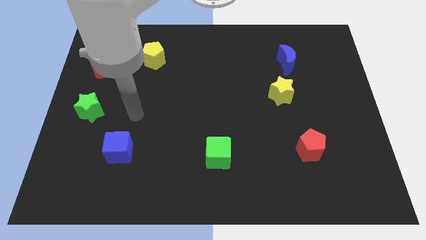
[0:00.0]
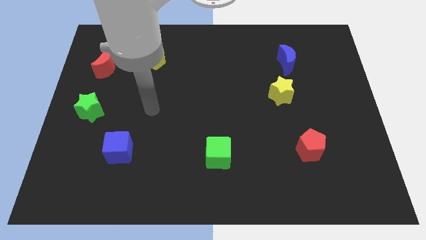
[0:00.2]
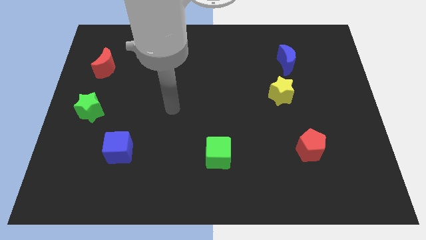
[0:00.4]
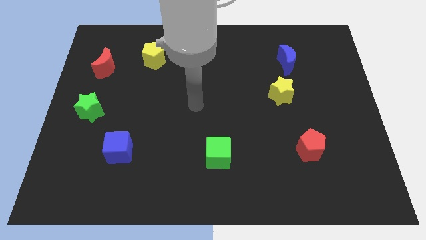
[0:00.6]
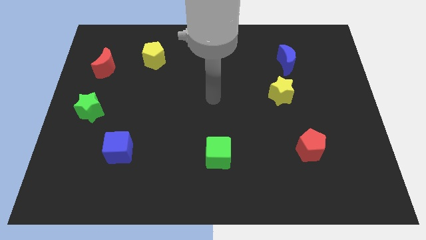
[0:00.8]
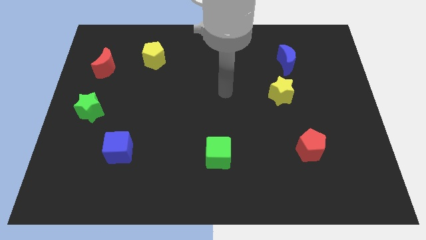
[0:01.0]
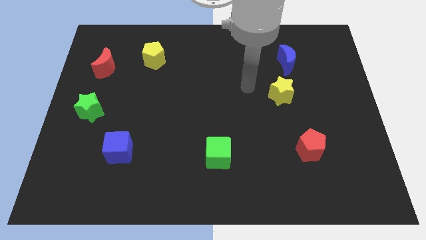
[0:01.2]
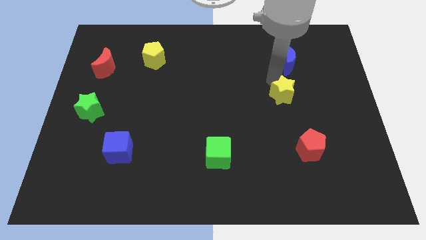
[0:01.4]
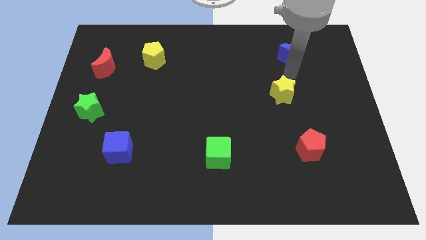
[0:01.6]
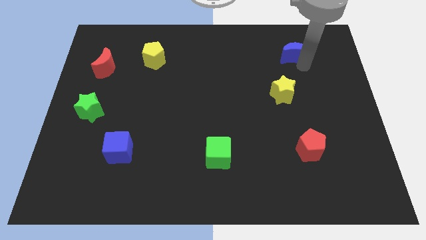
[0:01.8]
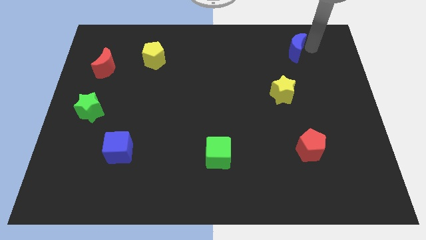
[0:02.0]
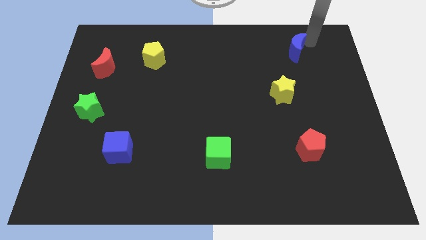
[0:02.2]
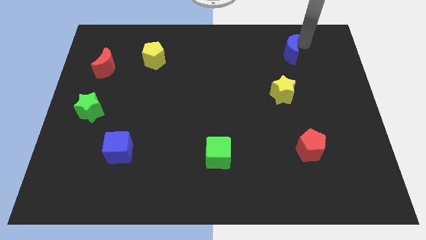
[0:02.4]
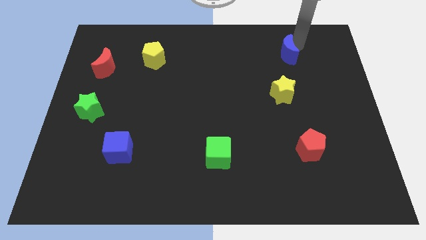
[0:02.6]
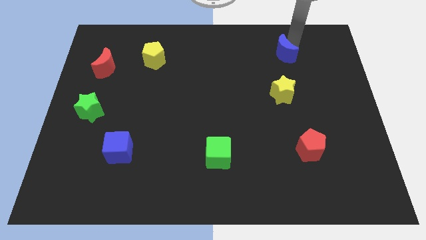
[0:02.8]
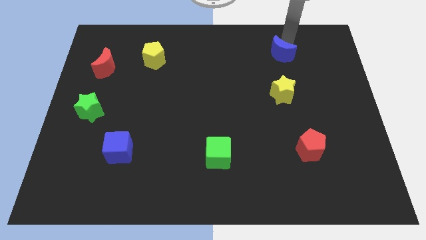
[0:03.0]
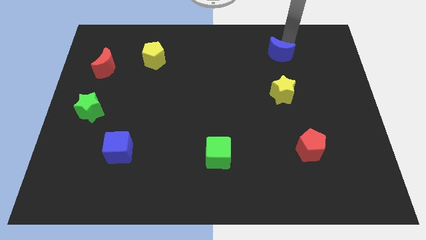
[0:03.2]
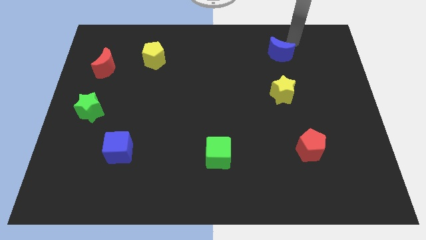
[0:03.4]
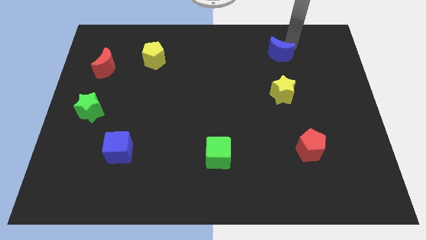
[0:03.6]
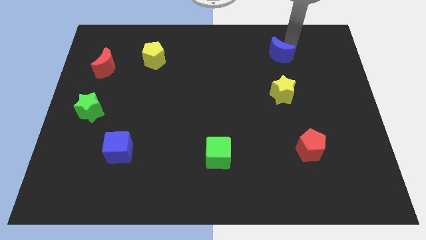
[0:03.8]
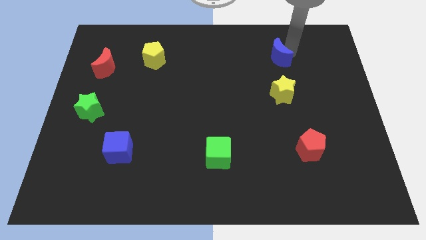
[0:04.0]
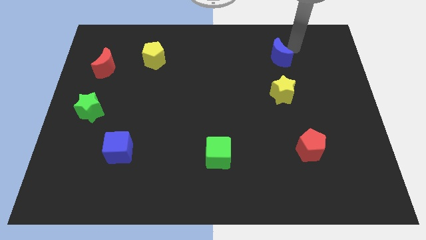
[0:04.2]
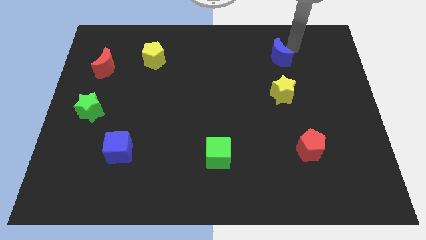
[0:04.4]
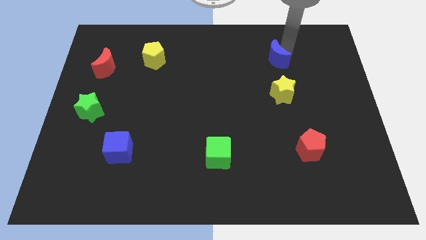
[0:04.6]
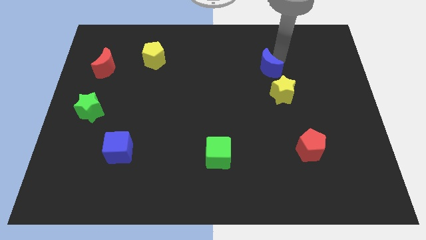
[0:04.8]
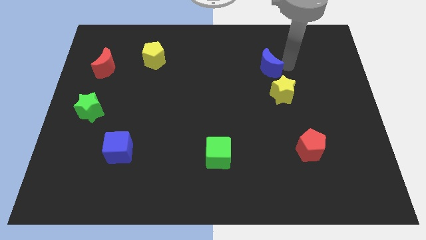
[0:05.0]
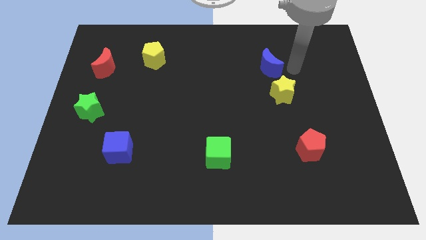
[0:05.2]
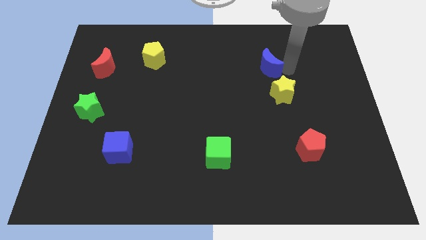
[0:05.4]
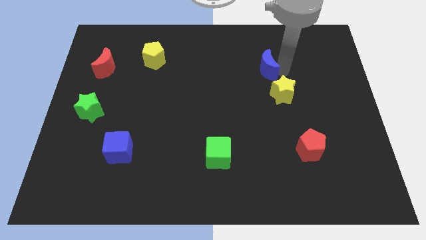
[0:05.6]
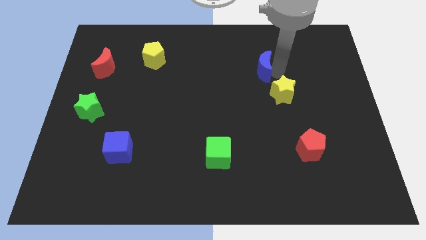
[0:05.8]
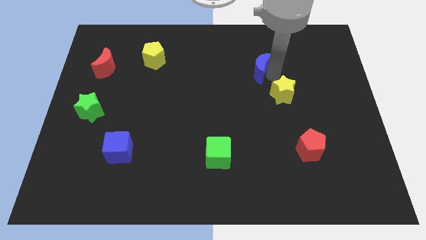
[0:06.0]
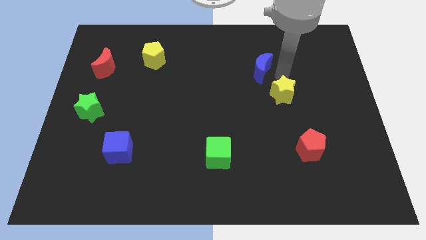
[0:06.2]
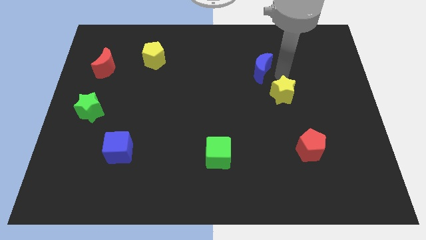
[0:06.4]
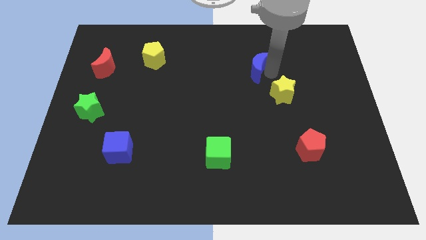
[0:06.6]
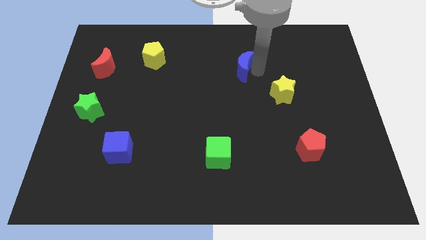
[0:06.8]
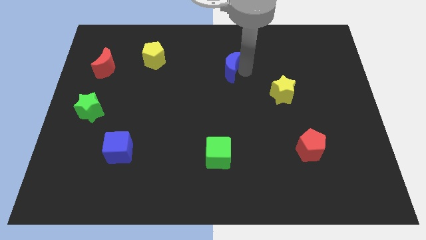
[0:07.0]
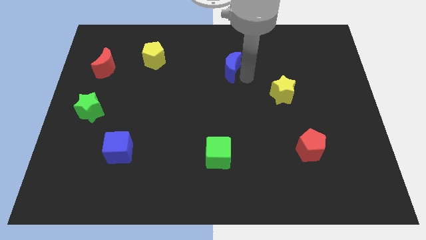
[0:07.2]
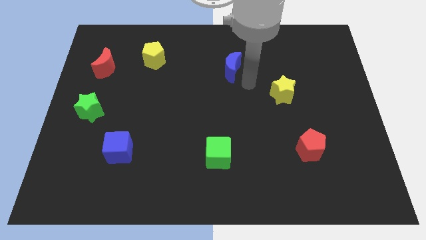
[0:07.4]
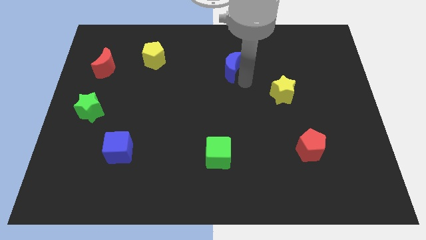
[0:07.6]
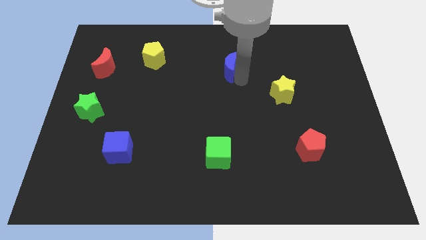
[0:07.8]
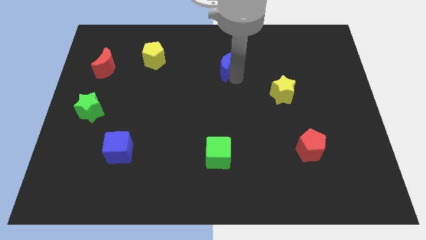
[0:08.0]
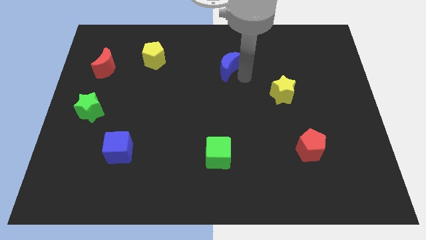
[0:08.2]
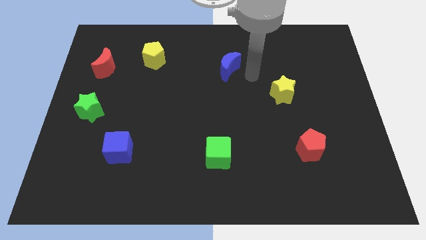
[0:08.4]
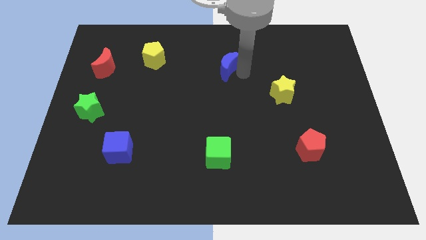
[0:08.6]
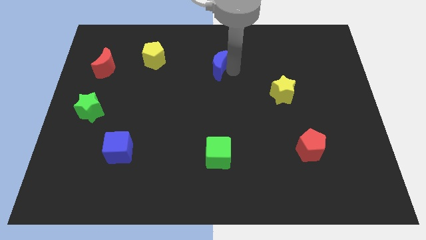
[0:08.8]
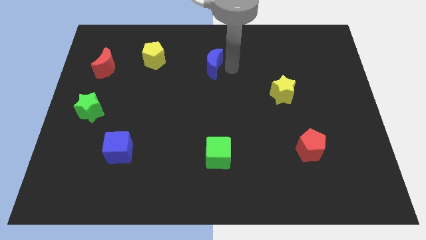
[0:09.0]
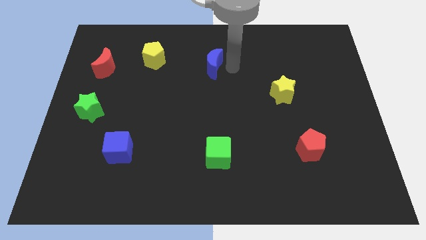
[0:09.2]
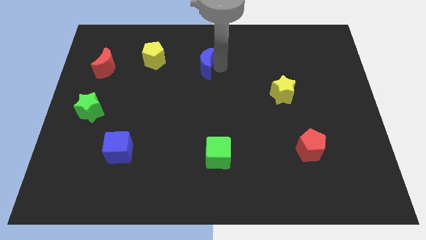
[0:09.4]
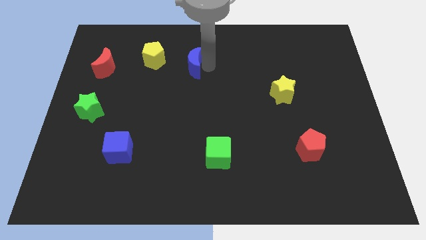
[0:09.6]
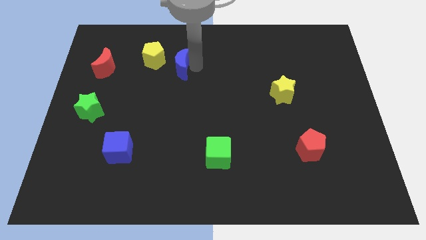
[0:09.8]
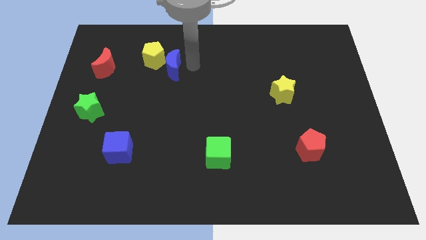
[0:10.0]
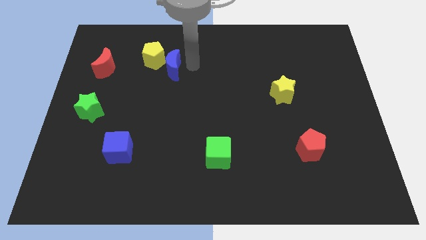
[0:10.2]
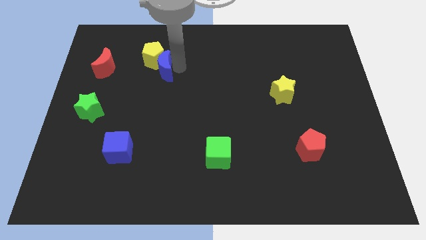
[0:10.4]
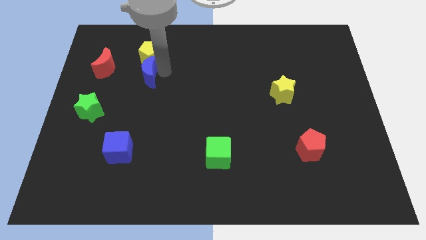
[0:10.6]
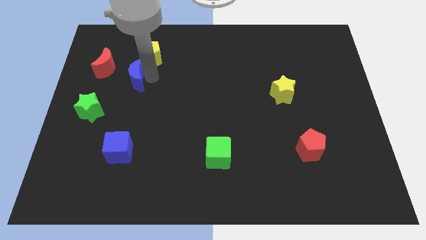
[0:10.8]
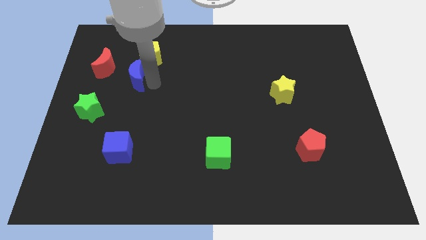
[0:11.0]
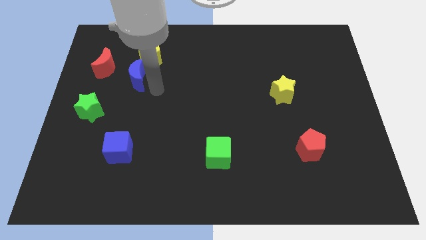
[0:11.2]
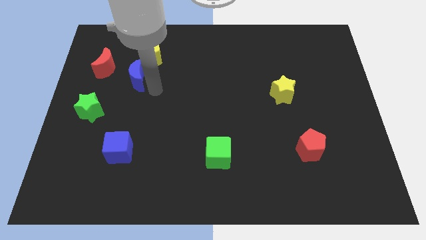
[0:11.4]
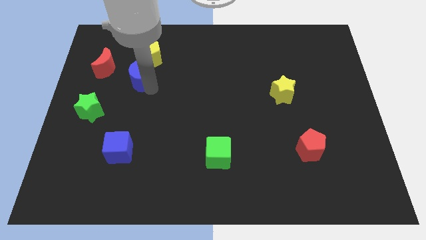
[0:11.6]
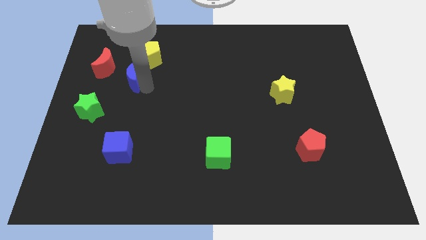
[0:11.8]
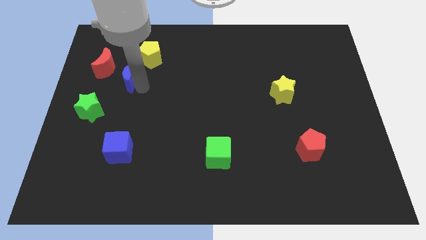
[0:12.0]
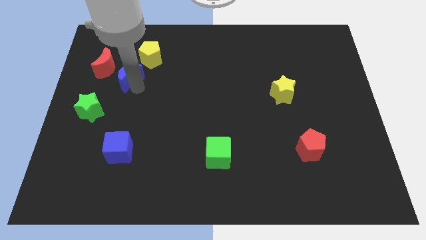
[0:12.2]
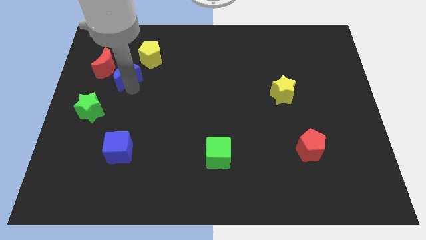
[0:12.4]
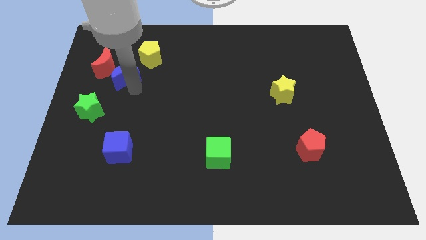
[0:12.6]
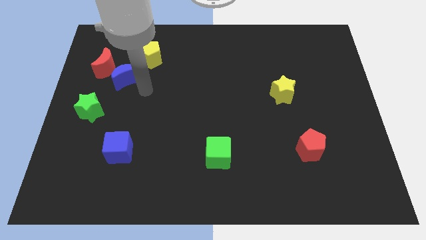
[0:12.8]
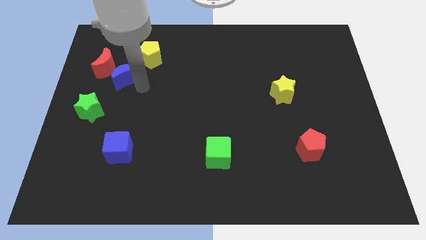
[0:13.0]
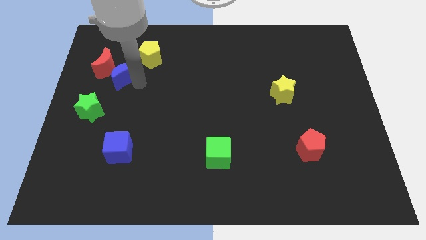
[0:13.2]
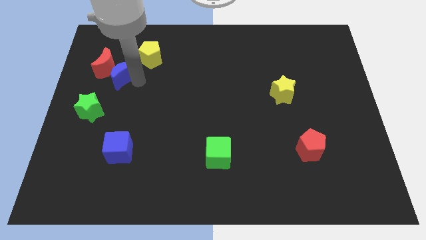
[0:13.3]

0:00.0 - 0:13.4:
push the blue moon next to the red moon
